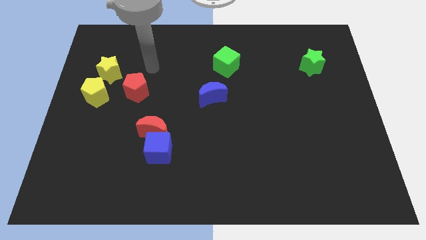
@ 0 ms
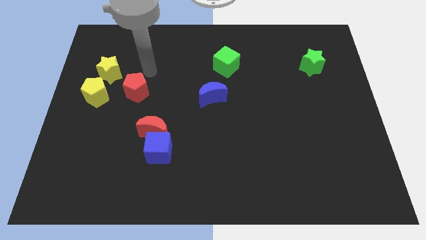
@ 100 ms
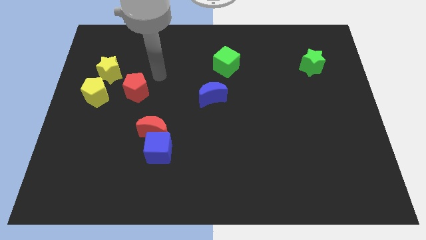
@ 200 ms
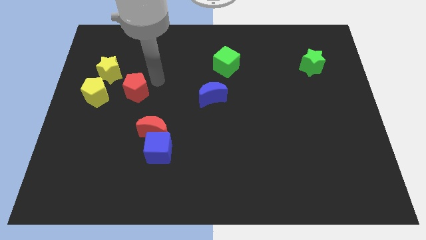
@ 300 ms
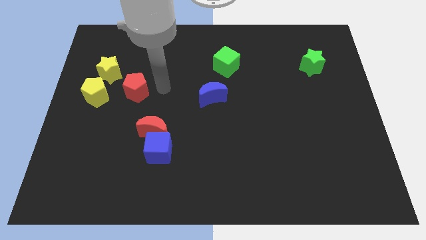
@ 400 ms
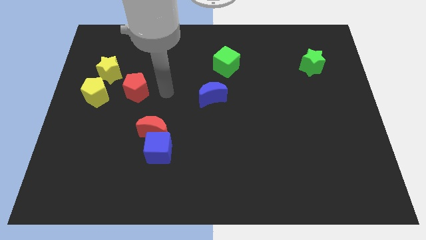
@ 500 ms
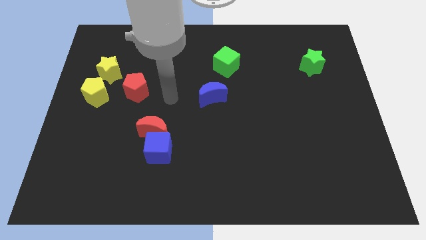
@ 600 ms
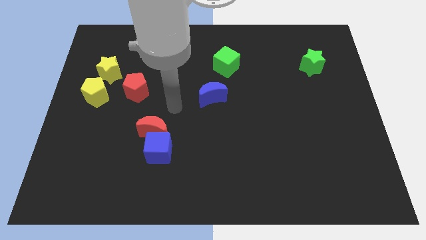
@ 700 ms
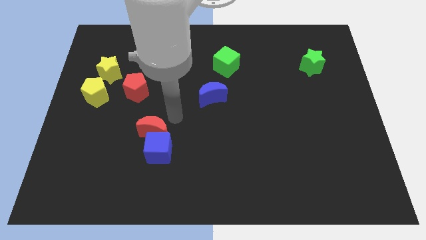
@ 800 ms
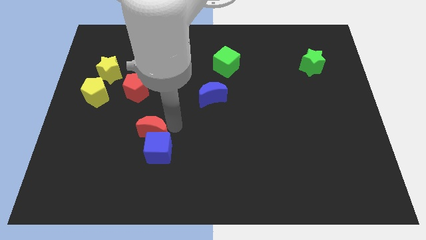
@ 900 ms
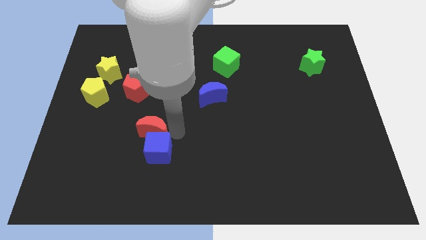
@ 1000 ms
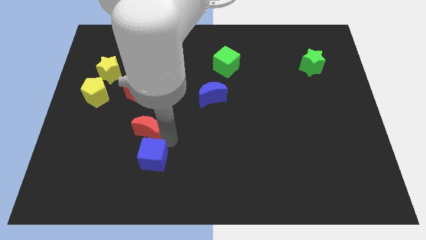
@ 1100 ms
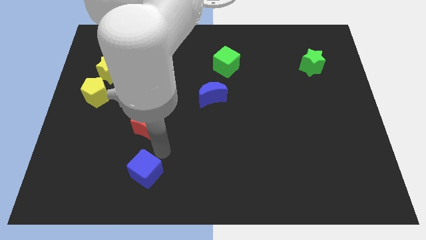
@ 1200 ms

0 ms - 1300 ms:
move the red moon away from the blue cube

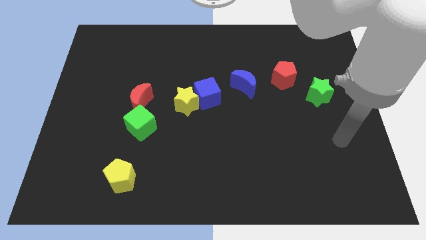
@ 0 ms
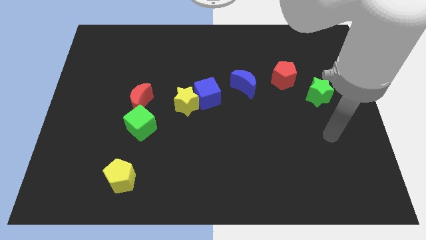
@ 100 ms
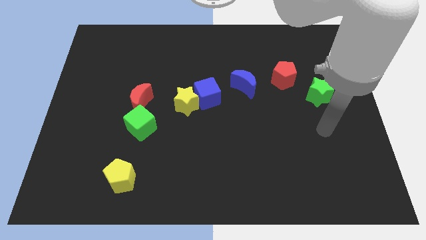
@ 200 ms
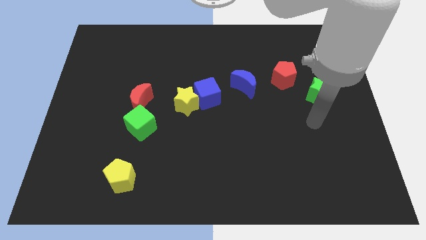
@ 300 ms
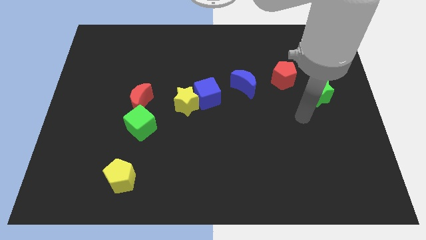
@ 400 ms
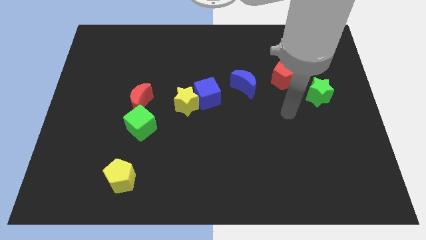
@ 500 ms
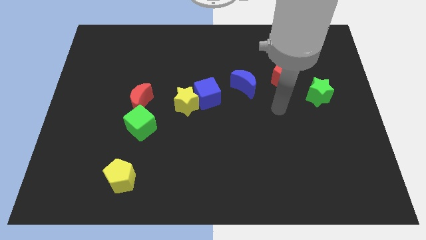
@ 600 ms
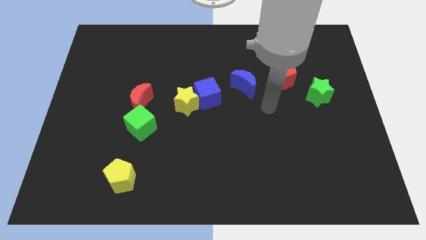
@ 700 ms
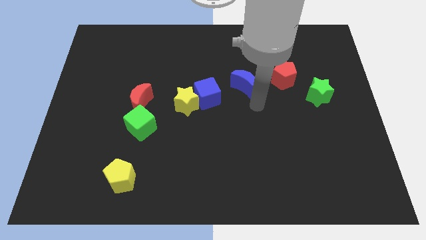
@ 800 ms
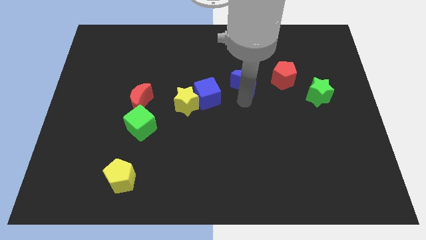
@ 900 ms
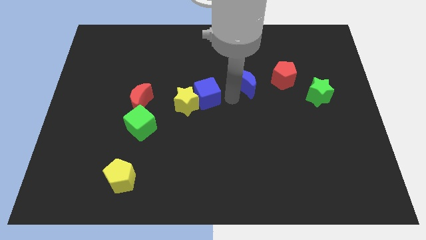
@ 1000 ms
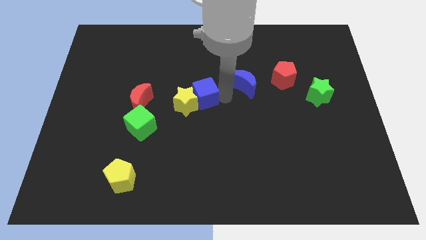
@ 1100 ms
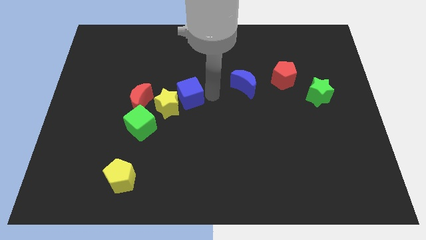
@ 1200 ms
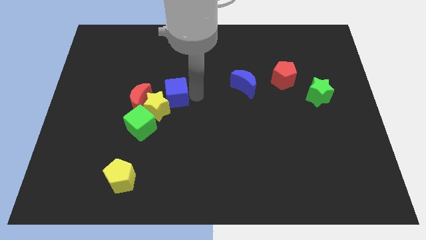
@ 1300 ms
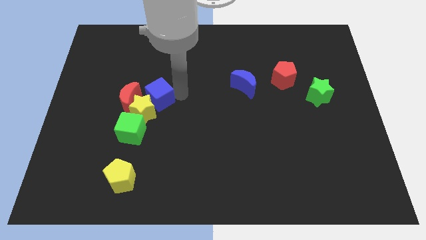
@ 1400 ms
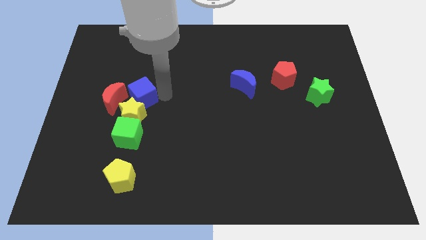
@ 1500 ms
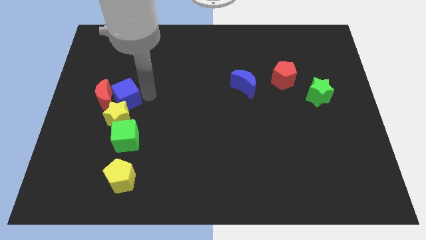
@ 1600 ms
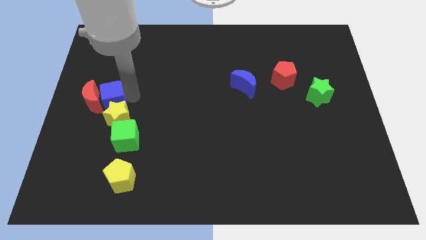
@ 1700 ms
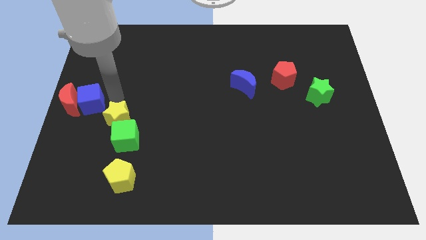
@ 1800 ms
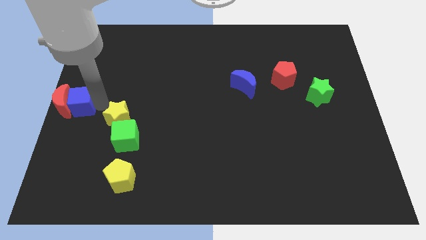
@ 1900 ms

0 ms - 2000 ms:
pull the yellow star apart from the blue cube

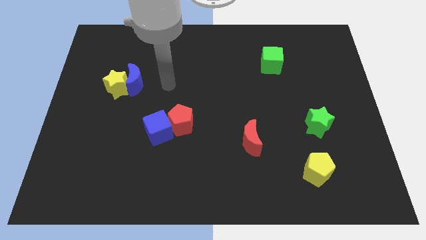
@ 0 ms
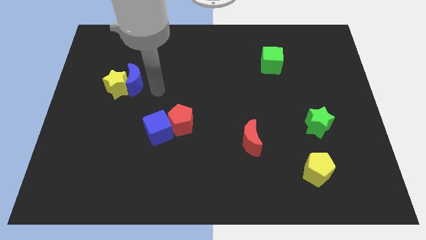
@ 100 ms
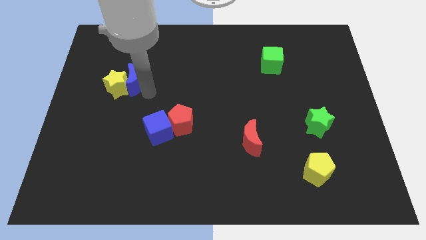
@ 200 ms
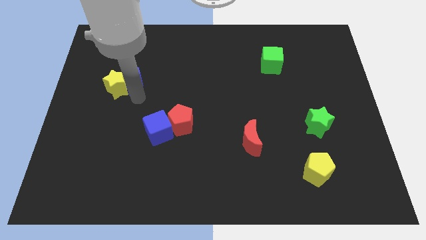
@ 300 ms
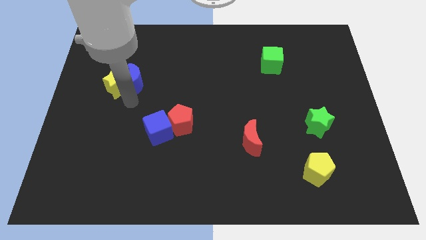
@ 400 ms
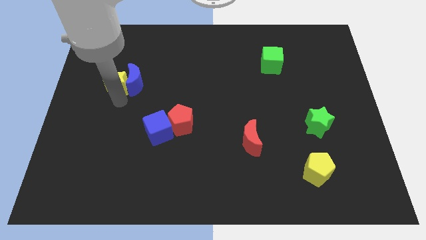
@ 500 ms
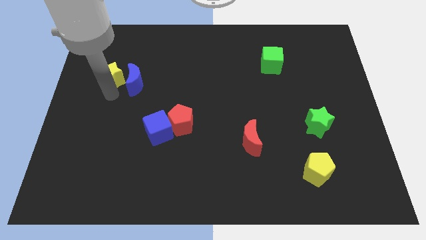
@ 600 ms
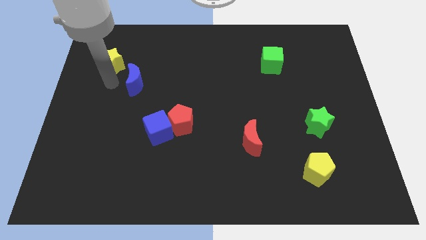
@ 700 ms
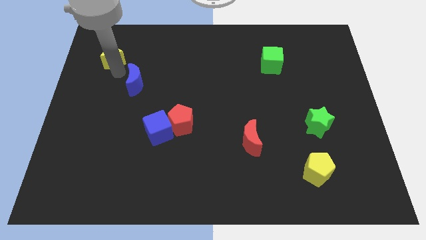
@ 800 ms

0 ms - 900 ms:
move the blue moon away from the yellow star

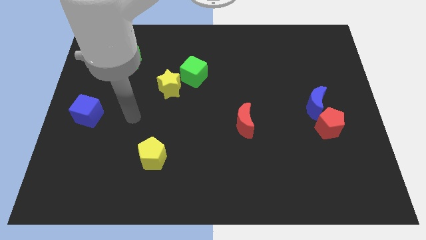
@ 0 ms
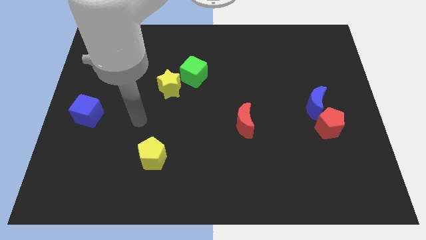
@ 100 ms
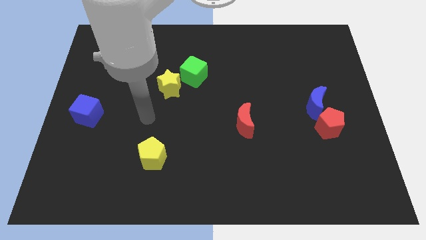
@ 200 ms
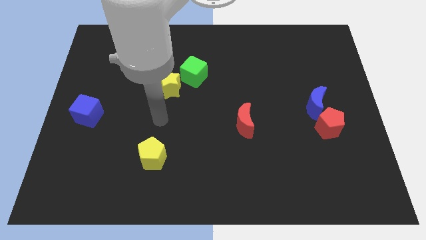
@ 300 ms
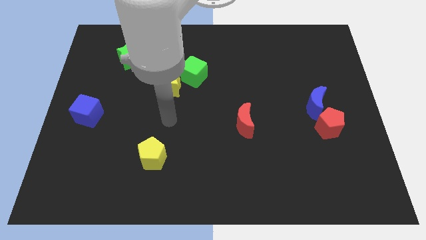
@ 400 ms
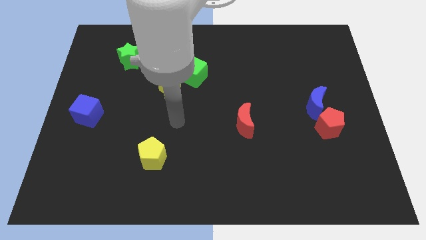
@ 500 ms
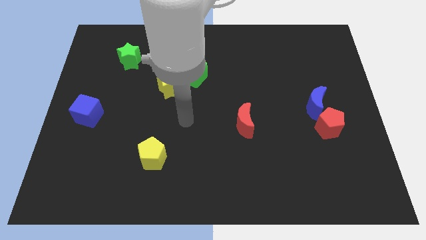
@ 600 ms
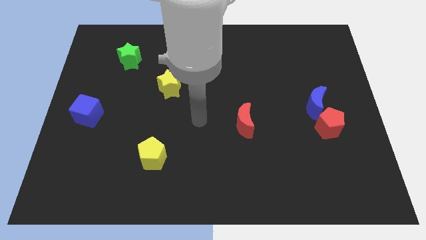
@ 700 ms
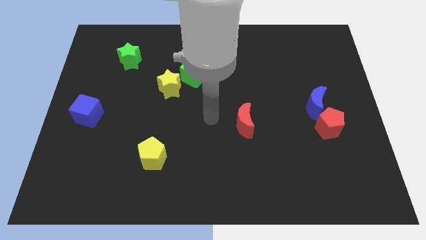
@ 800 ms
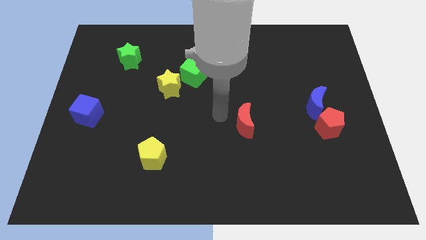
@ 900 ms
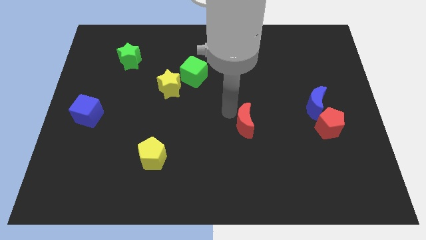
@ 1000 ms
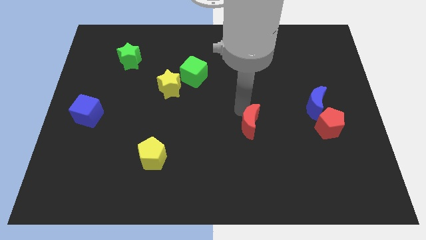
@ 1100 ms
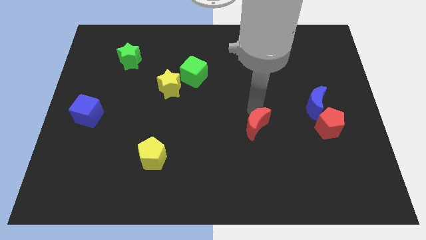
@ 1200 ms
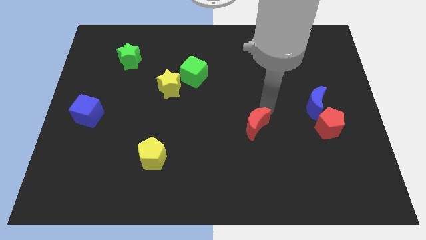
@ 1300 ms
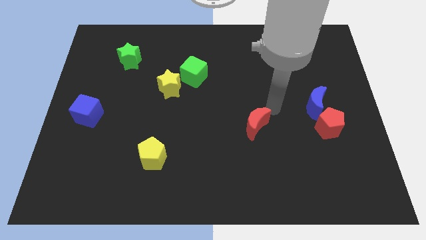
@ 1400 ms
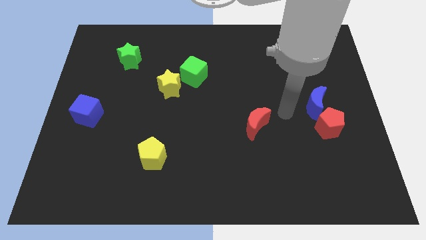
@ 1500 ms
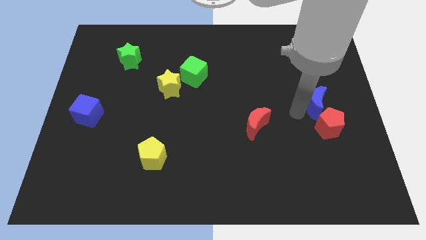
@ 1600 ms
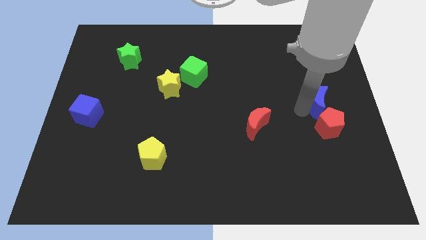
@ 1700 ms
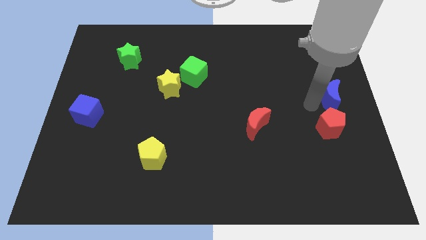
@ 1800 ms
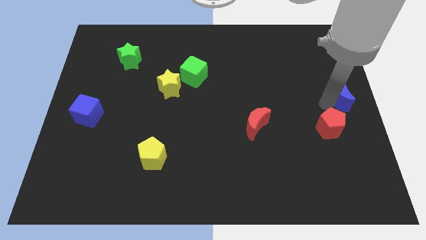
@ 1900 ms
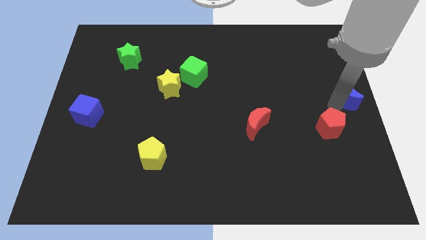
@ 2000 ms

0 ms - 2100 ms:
move the red pentagon away from the blue moon

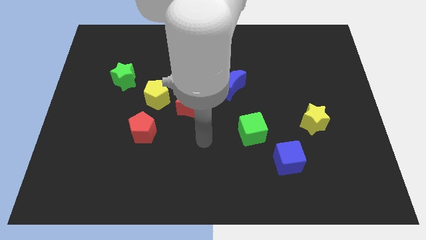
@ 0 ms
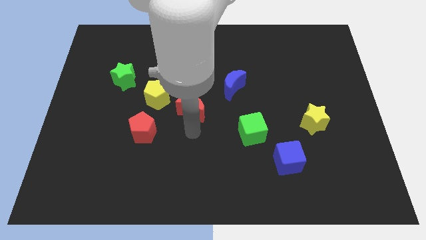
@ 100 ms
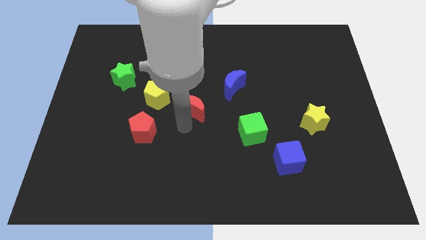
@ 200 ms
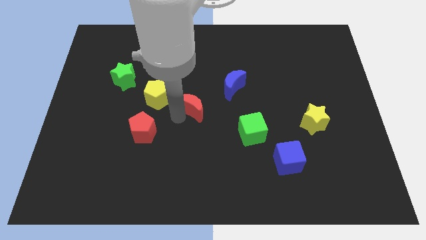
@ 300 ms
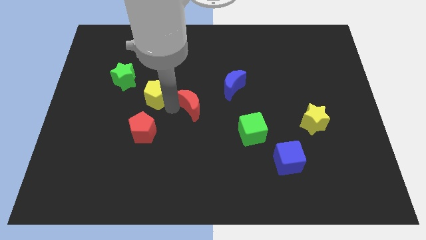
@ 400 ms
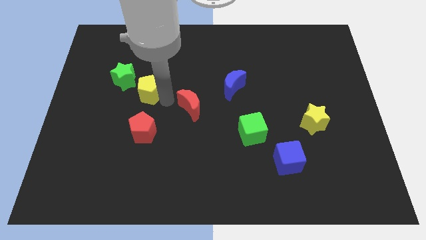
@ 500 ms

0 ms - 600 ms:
separate the red moon from the yellow pentagon

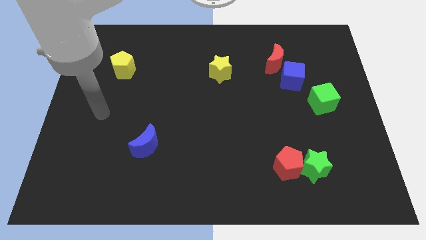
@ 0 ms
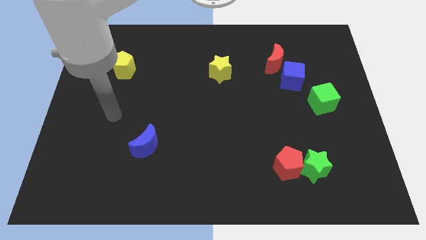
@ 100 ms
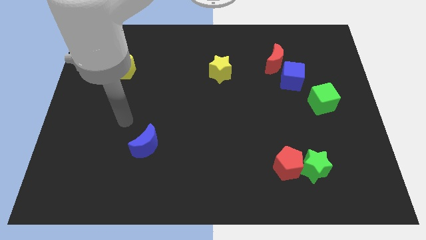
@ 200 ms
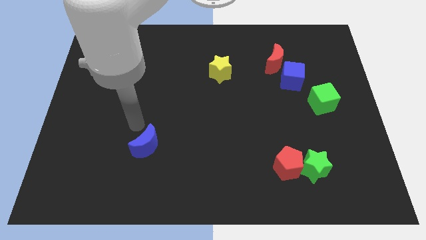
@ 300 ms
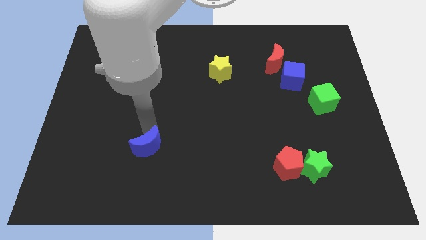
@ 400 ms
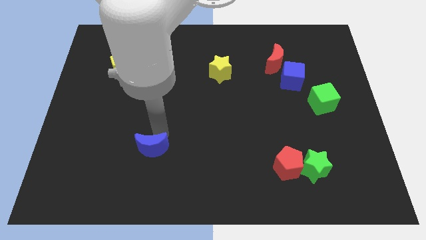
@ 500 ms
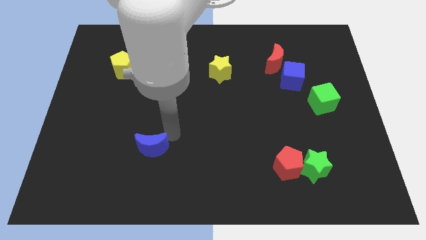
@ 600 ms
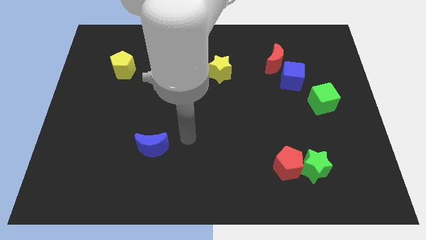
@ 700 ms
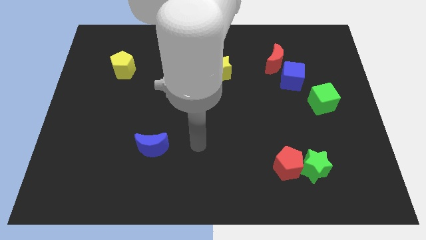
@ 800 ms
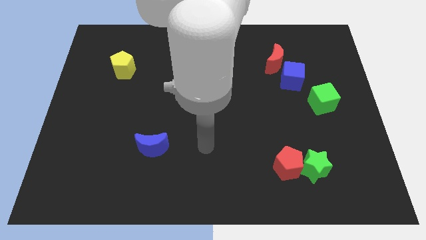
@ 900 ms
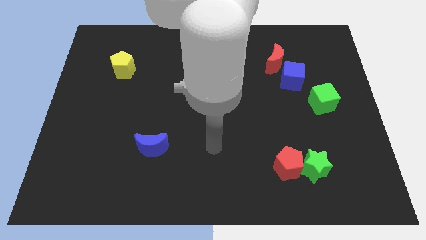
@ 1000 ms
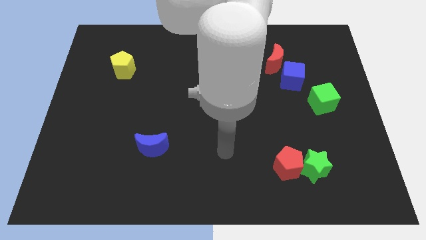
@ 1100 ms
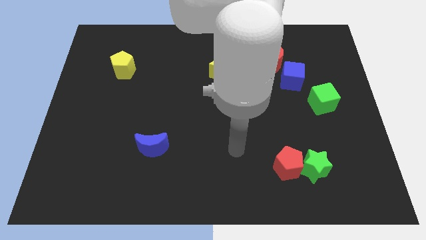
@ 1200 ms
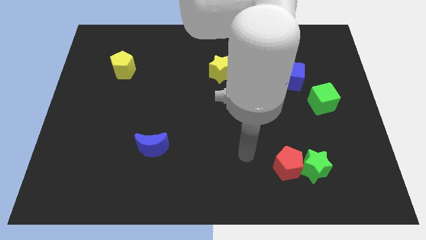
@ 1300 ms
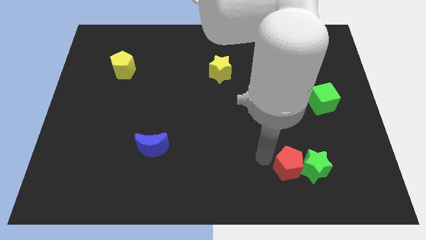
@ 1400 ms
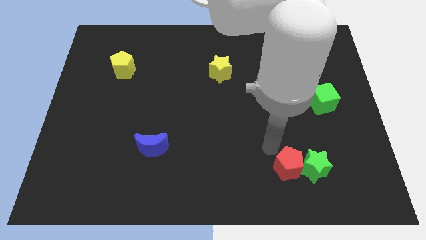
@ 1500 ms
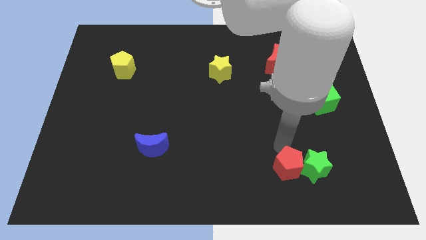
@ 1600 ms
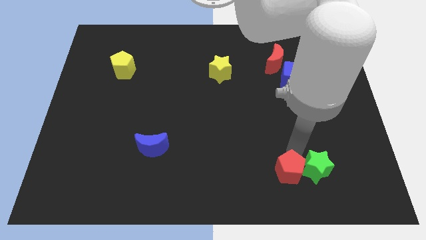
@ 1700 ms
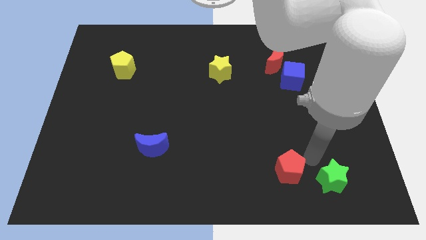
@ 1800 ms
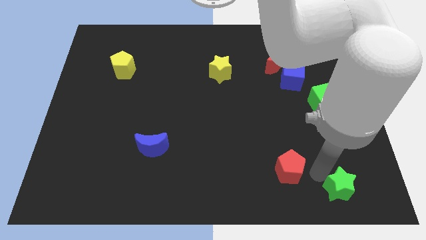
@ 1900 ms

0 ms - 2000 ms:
pull the red pentagon apart from the green star

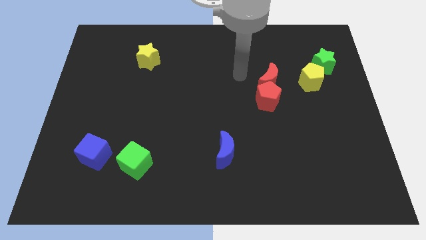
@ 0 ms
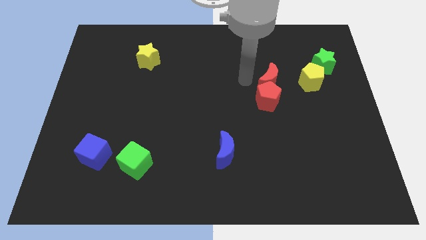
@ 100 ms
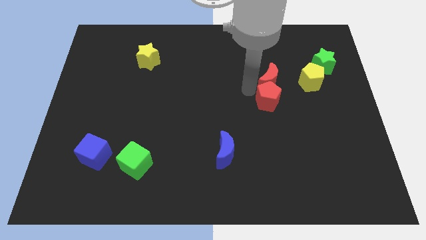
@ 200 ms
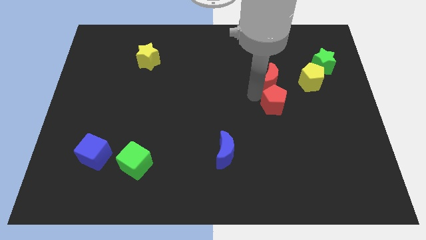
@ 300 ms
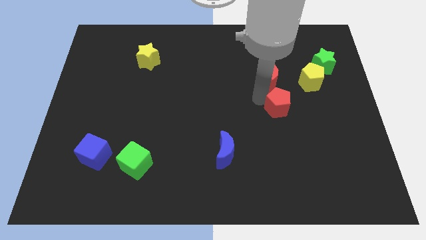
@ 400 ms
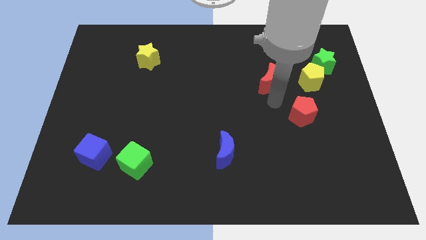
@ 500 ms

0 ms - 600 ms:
move the red moon away from the red pentagon

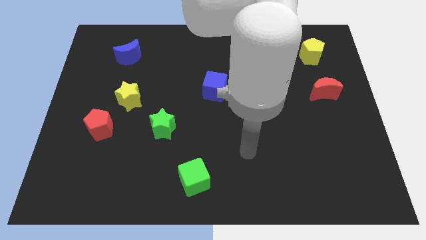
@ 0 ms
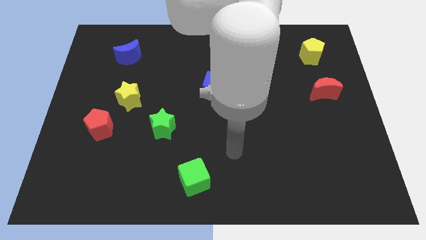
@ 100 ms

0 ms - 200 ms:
separate the red pentagon from the yellow star
